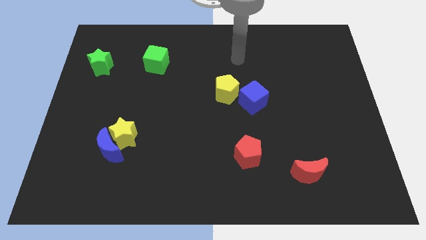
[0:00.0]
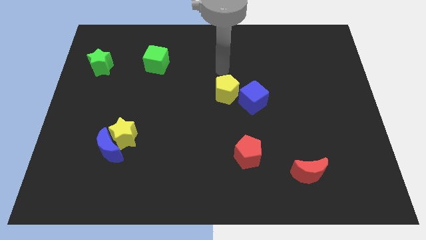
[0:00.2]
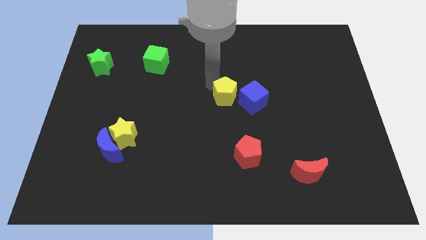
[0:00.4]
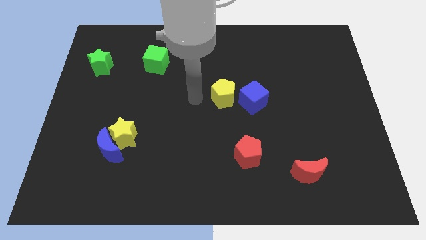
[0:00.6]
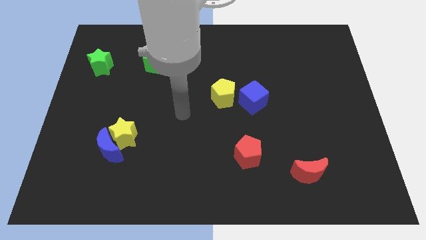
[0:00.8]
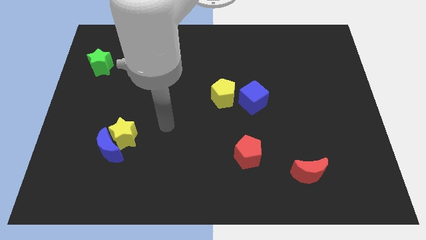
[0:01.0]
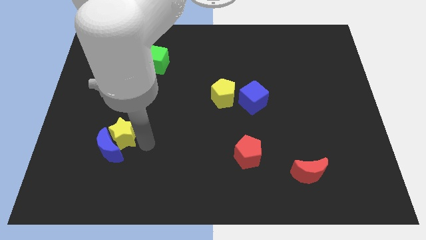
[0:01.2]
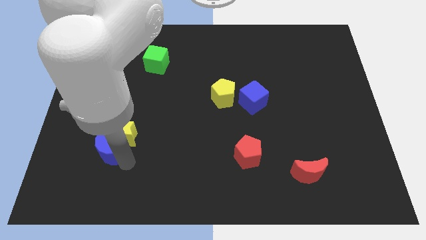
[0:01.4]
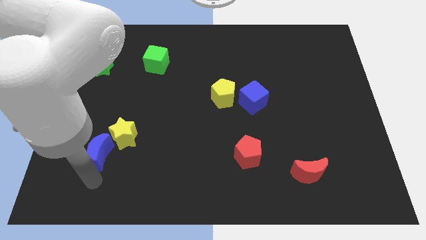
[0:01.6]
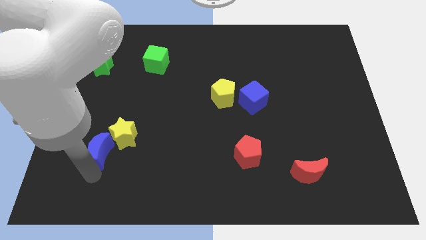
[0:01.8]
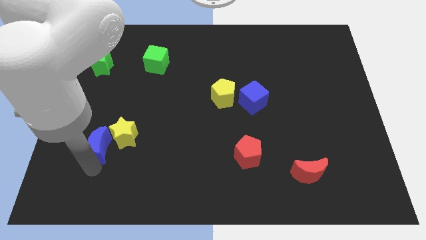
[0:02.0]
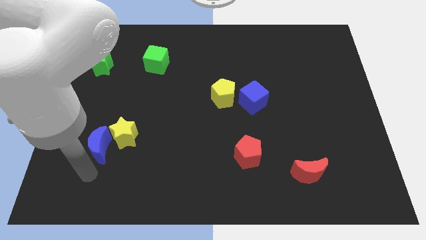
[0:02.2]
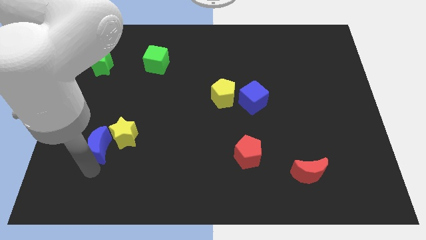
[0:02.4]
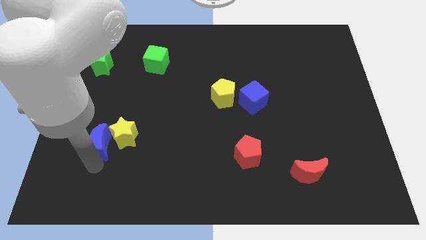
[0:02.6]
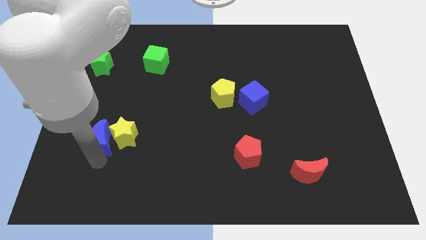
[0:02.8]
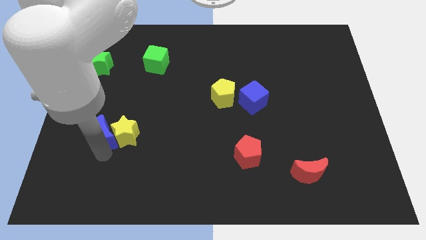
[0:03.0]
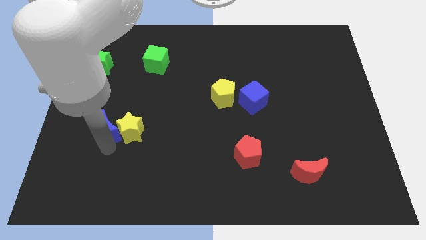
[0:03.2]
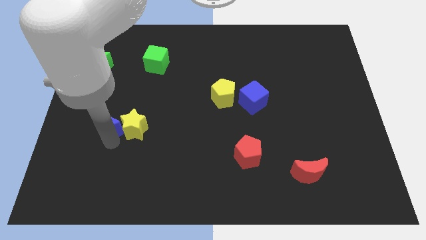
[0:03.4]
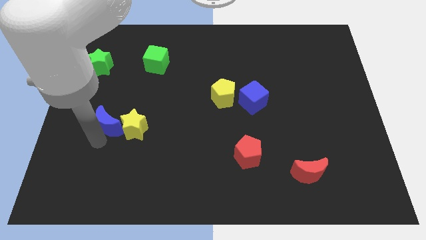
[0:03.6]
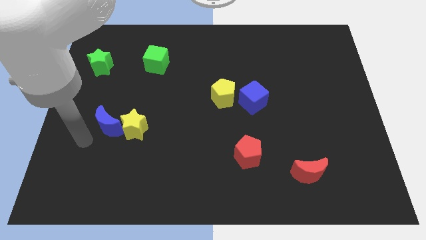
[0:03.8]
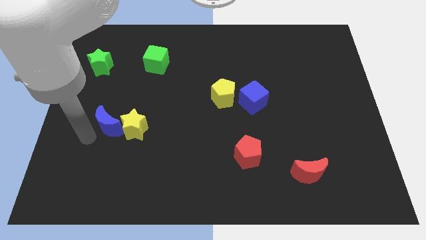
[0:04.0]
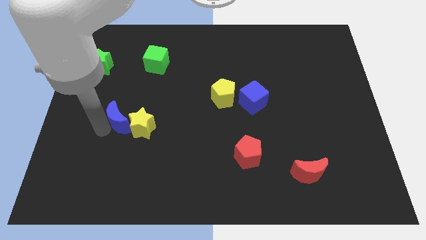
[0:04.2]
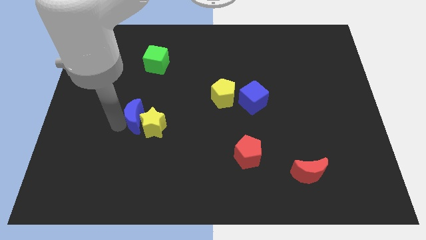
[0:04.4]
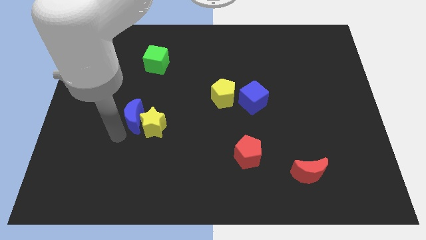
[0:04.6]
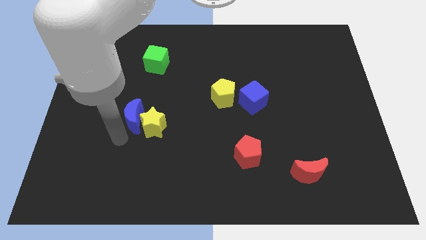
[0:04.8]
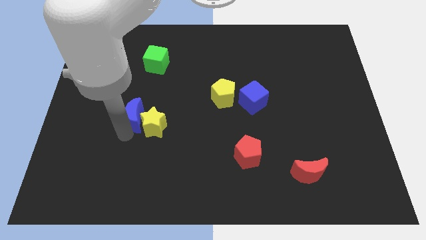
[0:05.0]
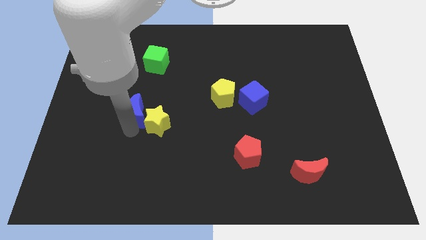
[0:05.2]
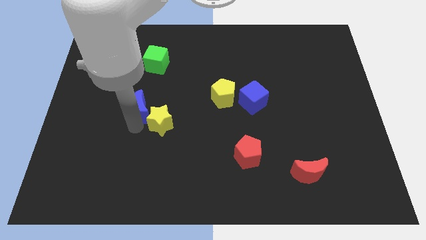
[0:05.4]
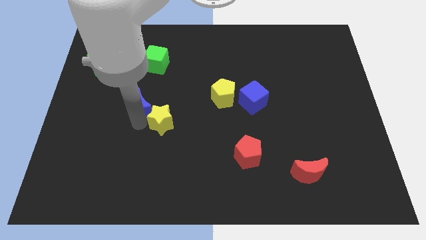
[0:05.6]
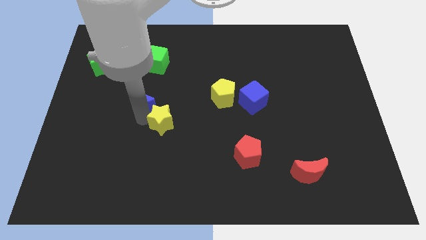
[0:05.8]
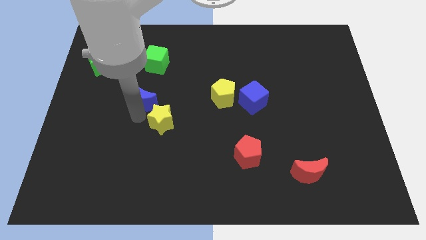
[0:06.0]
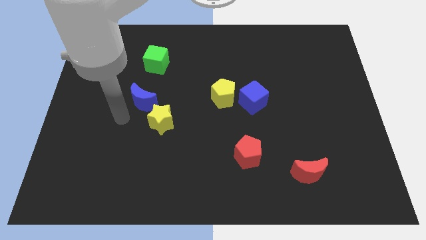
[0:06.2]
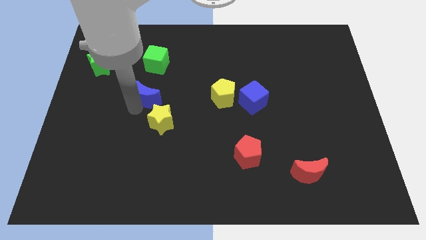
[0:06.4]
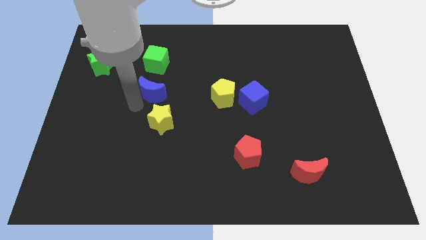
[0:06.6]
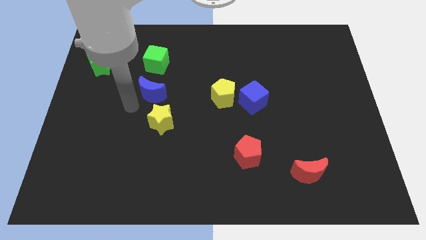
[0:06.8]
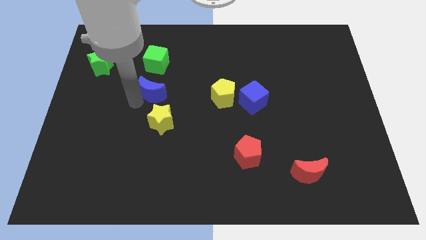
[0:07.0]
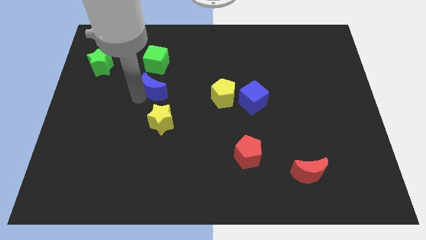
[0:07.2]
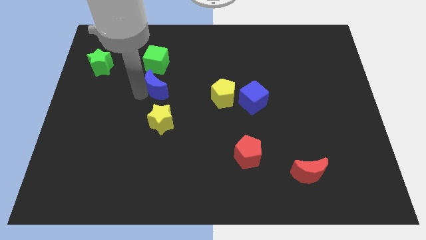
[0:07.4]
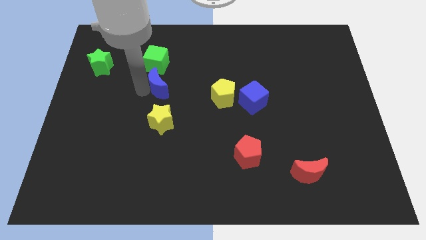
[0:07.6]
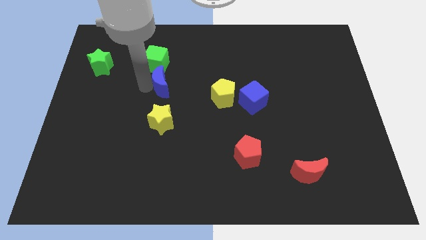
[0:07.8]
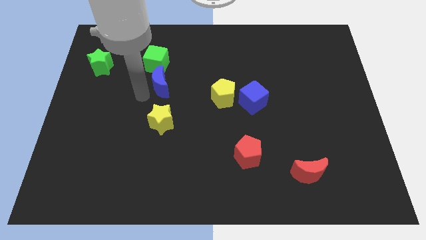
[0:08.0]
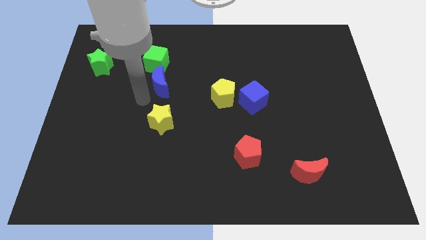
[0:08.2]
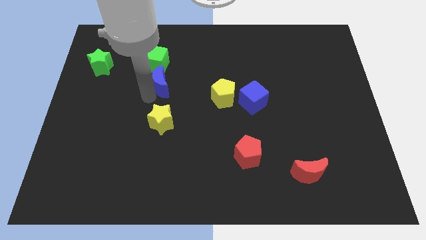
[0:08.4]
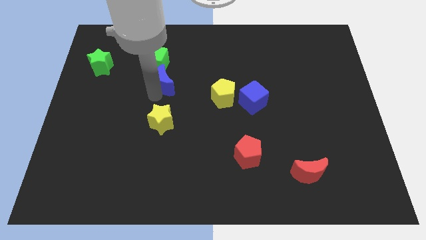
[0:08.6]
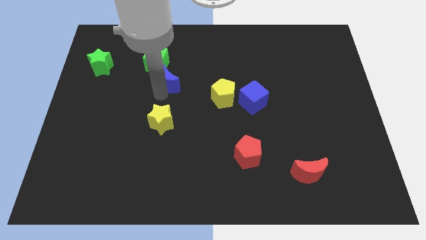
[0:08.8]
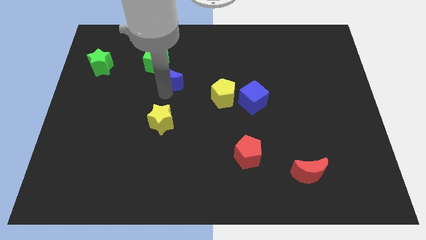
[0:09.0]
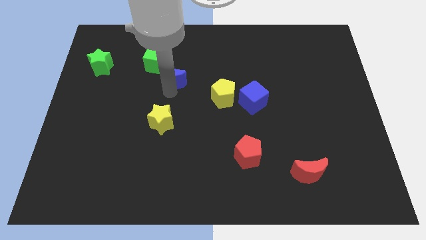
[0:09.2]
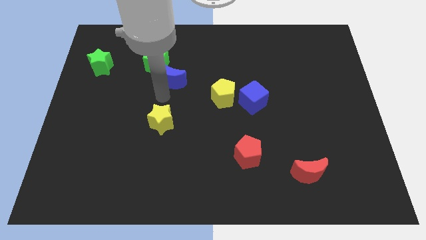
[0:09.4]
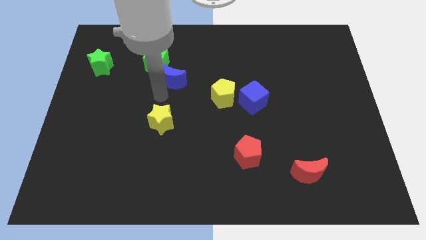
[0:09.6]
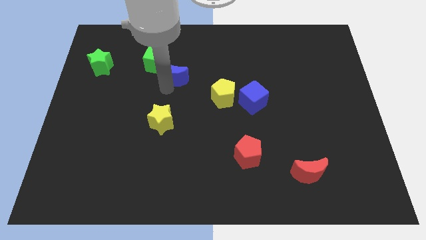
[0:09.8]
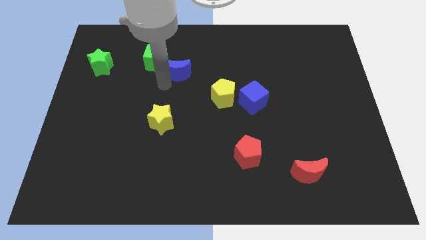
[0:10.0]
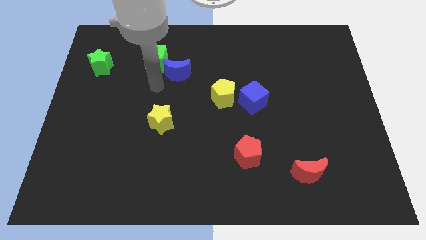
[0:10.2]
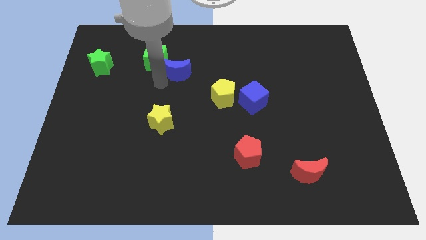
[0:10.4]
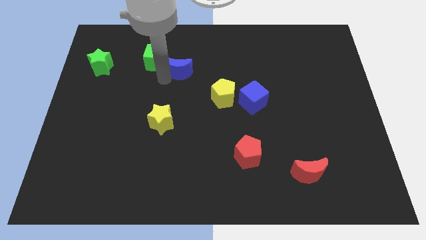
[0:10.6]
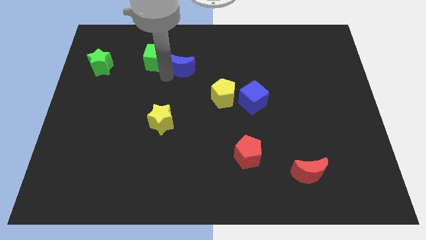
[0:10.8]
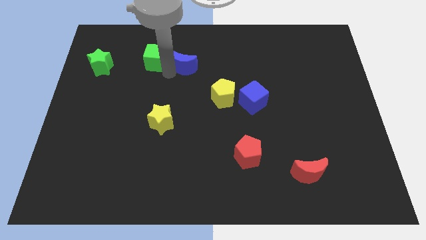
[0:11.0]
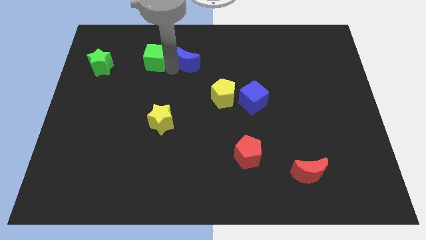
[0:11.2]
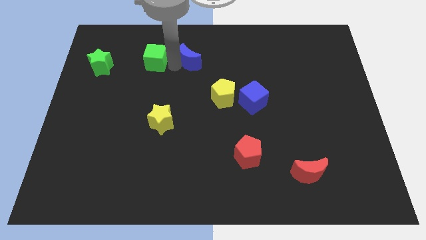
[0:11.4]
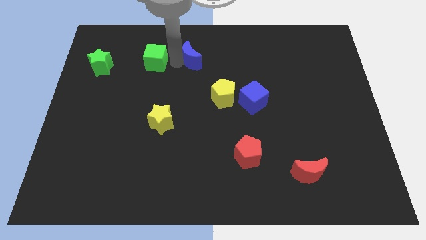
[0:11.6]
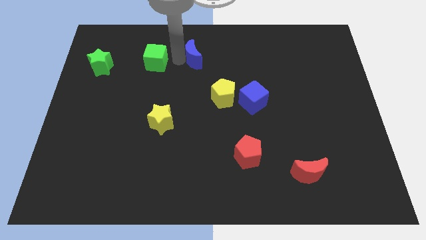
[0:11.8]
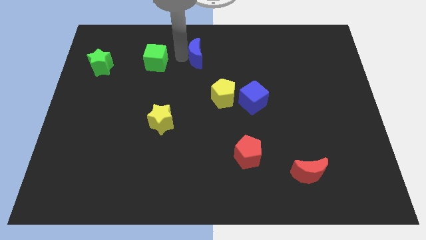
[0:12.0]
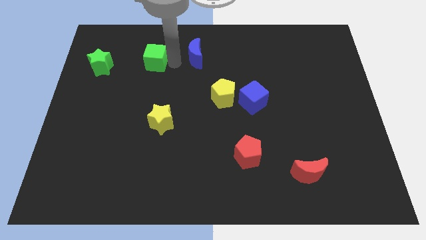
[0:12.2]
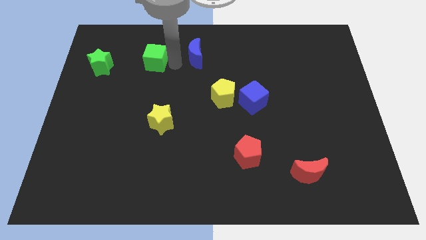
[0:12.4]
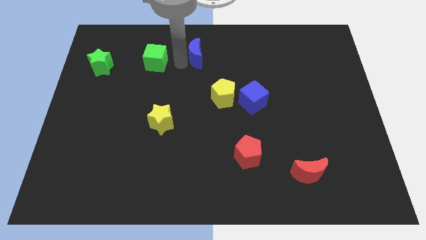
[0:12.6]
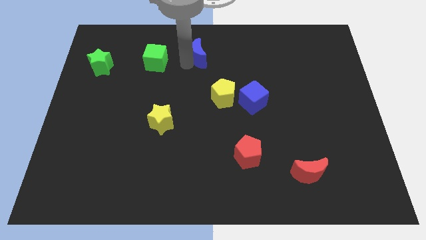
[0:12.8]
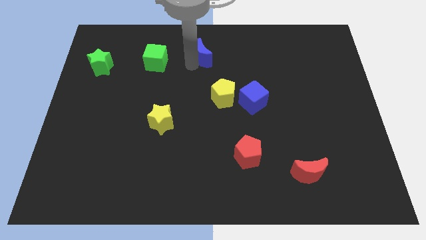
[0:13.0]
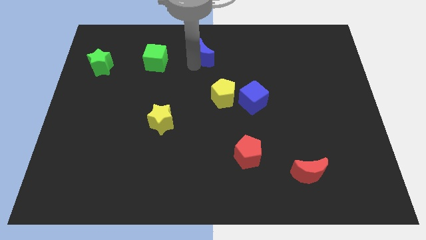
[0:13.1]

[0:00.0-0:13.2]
move the blue moon to the top
